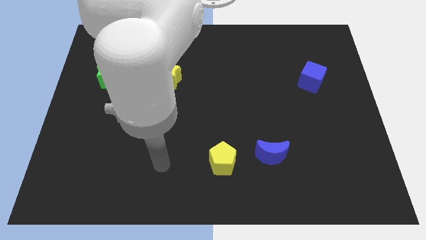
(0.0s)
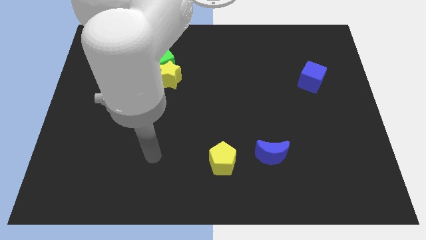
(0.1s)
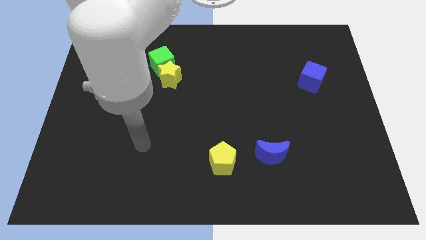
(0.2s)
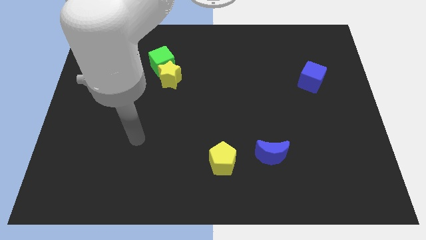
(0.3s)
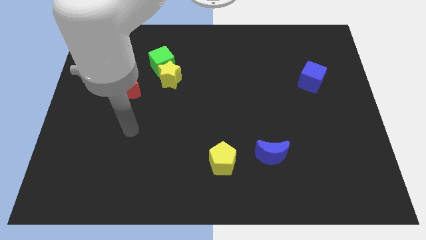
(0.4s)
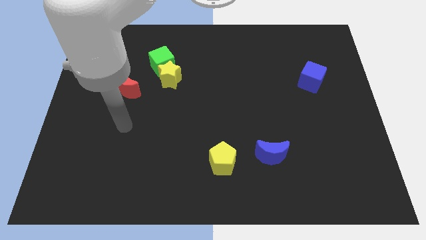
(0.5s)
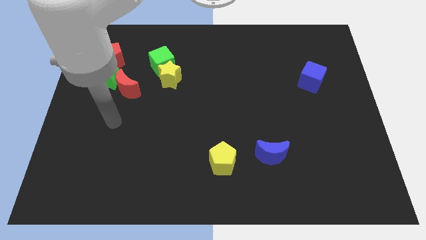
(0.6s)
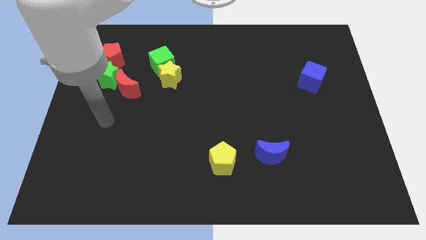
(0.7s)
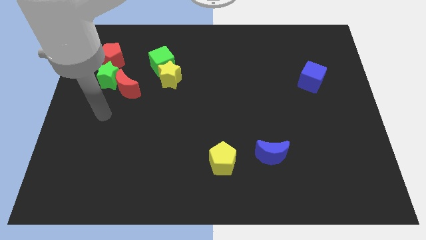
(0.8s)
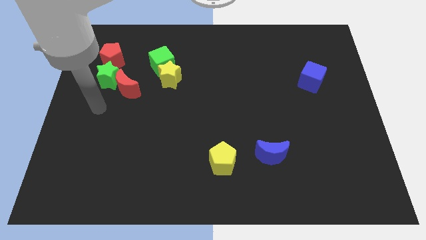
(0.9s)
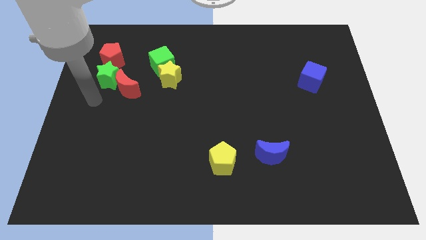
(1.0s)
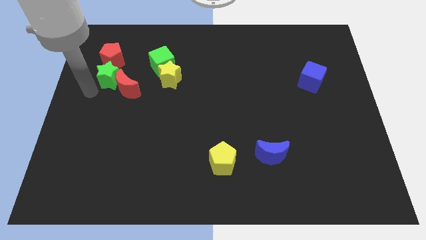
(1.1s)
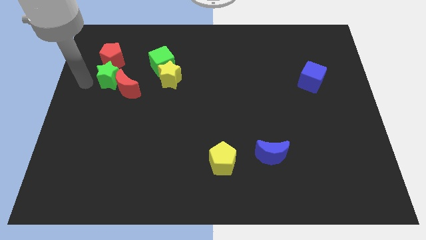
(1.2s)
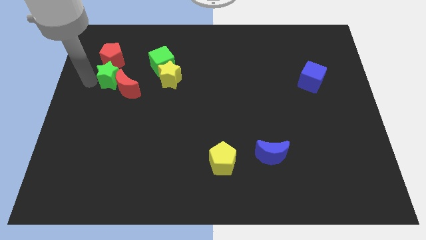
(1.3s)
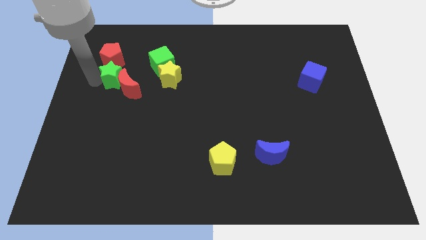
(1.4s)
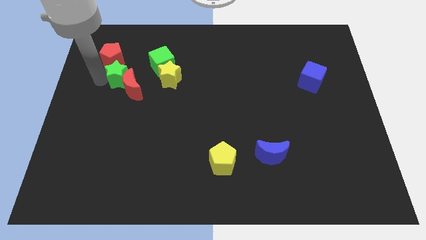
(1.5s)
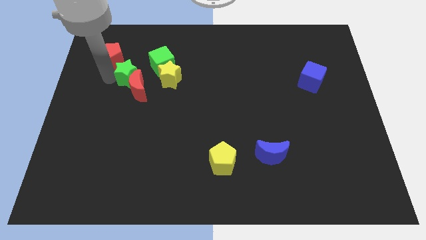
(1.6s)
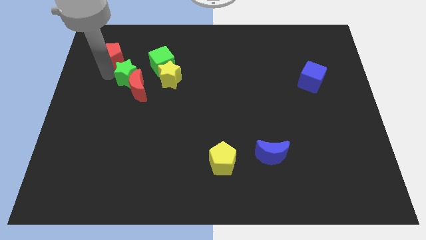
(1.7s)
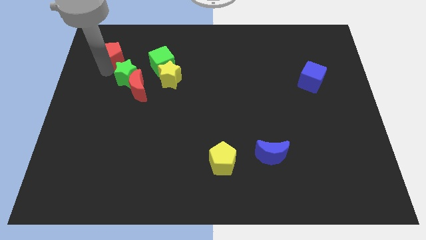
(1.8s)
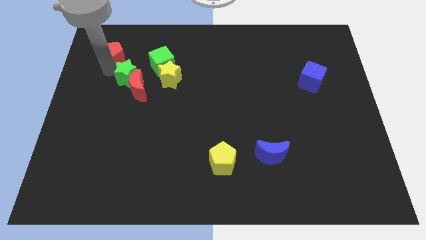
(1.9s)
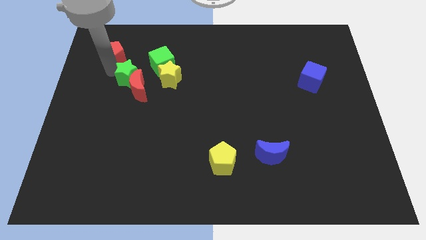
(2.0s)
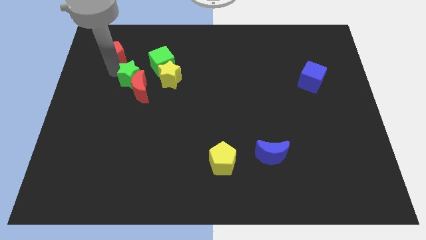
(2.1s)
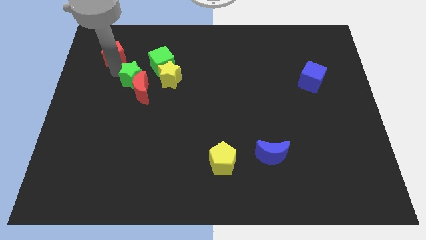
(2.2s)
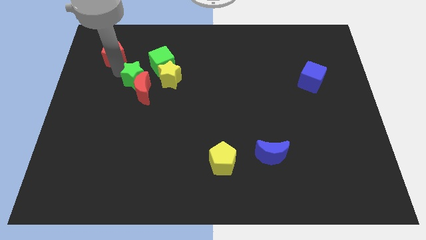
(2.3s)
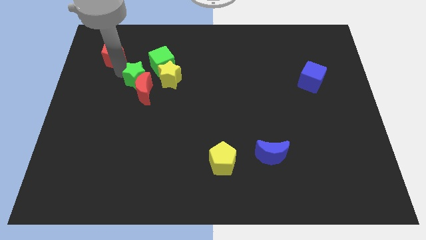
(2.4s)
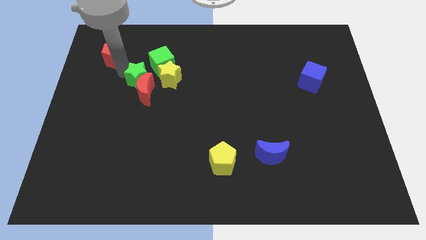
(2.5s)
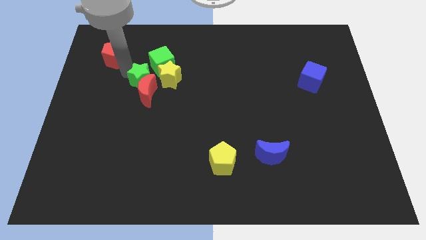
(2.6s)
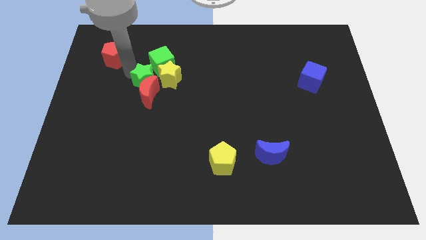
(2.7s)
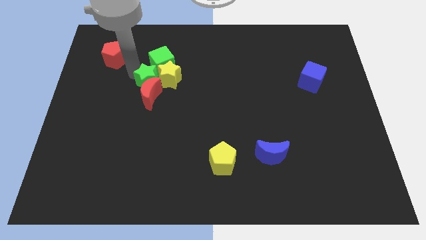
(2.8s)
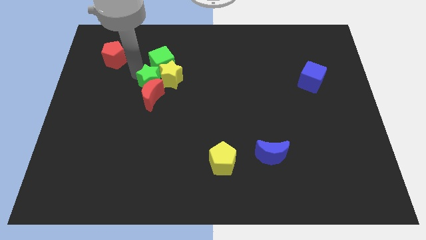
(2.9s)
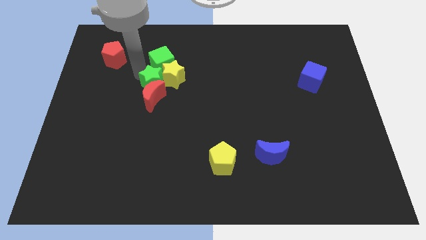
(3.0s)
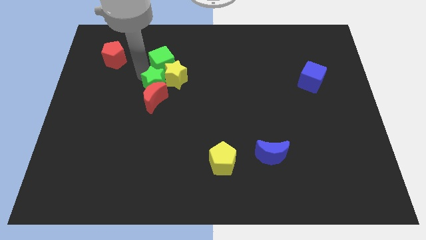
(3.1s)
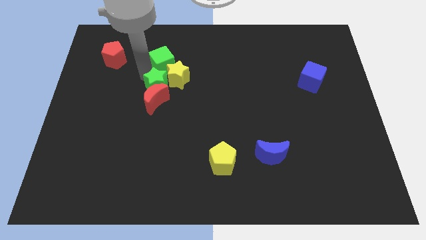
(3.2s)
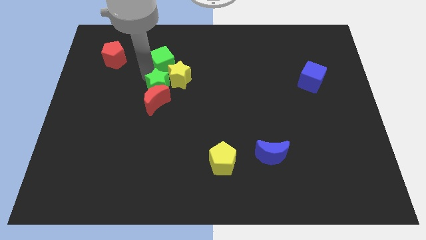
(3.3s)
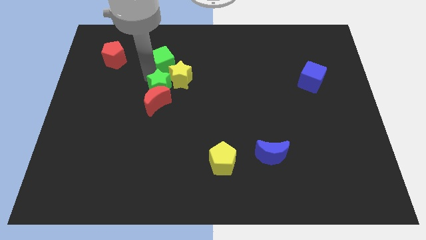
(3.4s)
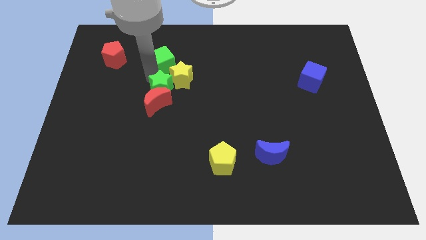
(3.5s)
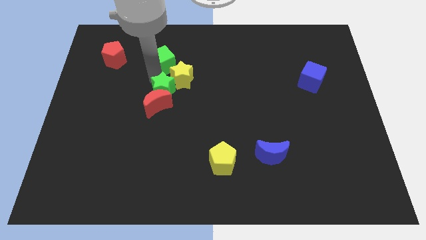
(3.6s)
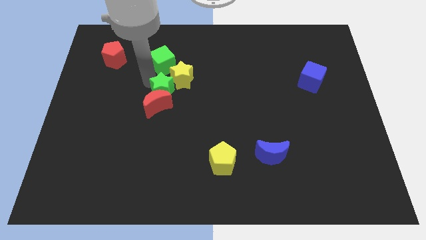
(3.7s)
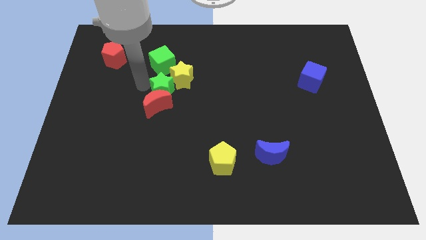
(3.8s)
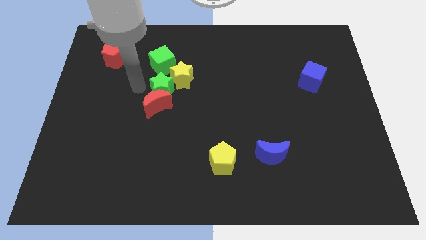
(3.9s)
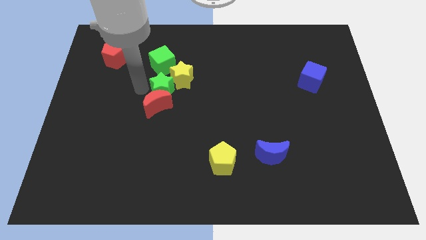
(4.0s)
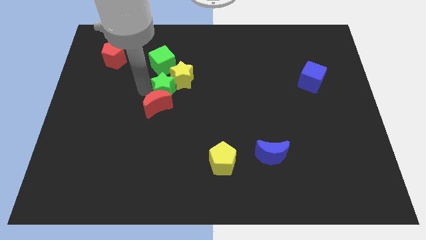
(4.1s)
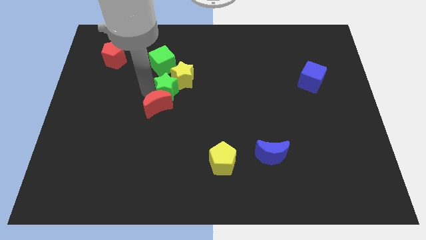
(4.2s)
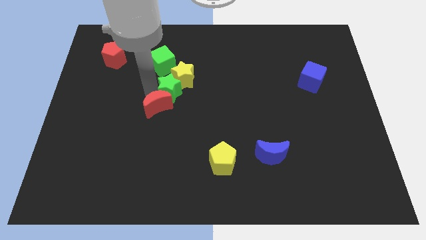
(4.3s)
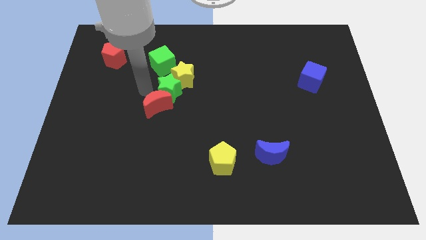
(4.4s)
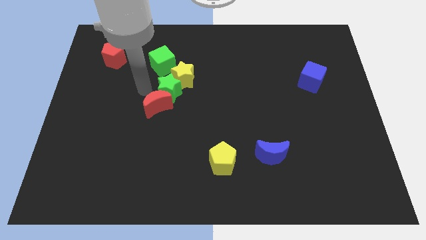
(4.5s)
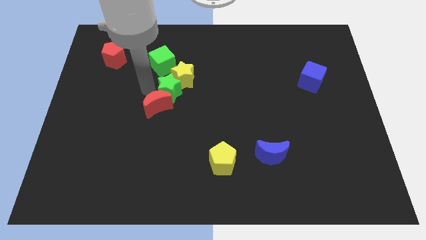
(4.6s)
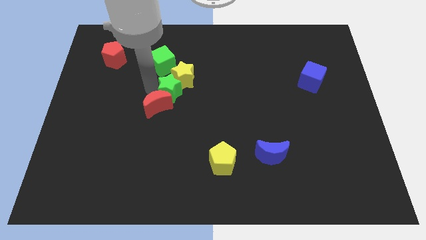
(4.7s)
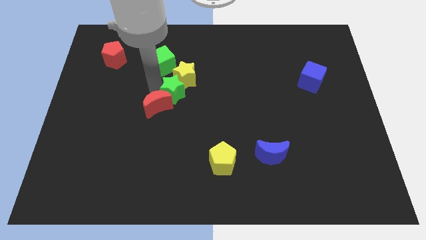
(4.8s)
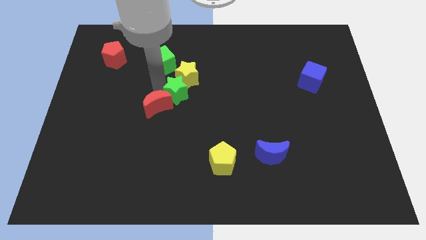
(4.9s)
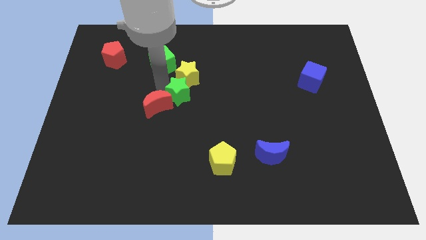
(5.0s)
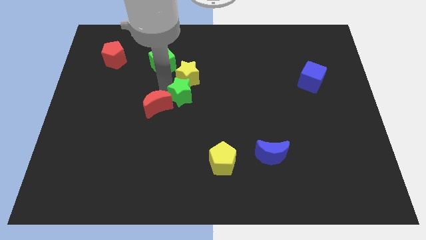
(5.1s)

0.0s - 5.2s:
move the green star to the bottom right of the yellow star

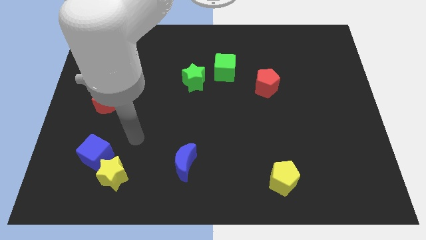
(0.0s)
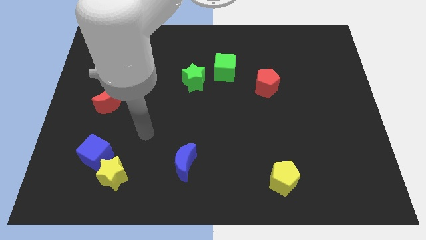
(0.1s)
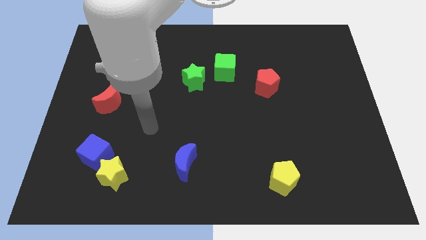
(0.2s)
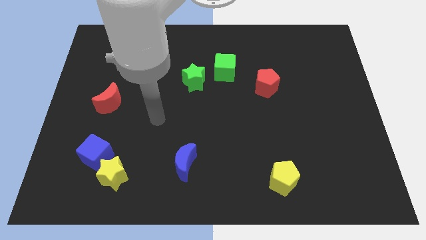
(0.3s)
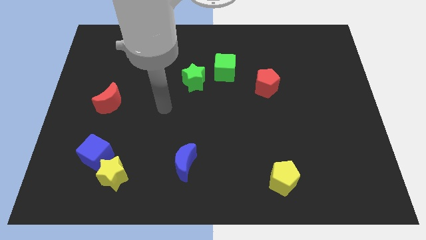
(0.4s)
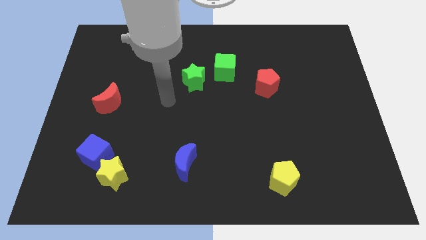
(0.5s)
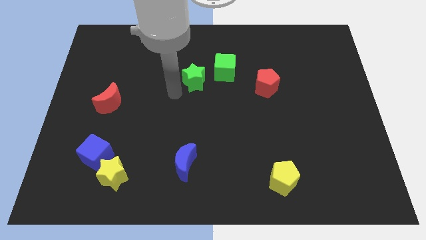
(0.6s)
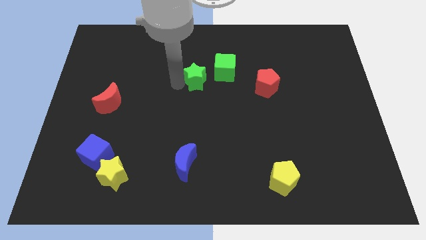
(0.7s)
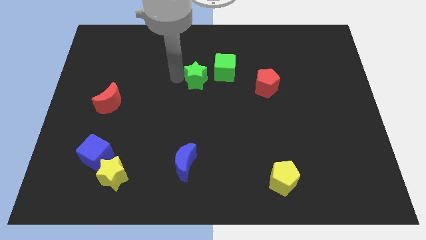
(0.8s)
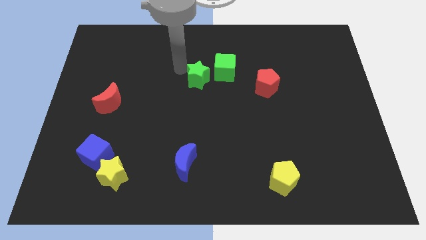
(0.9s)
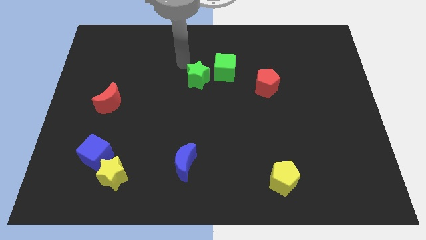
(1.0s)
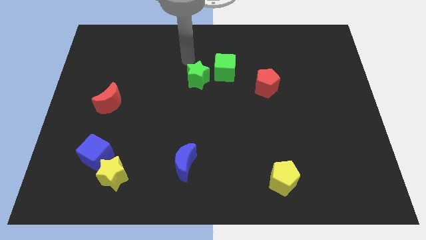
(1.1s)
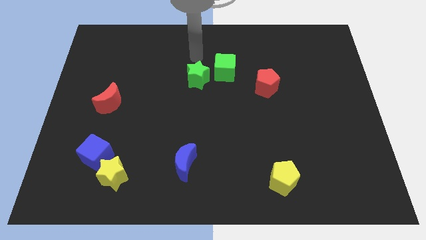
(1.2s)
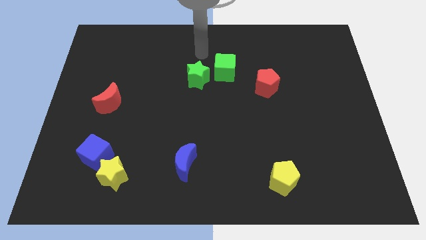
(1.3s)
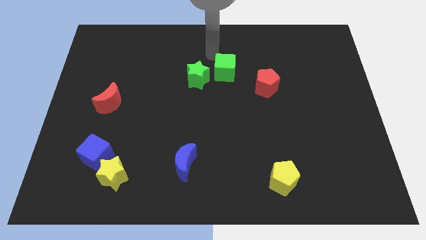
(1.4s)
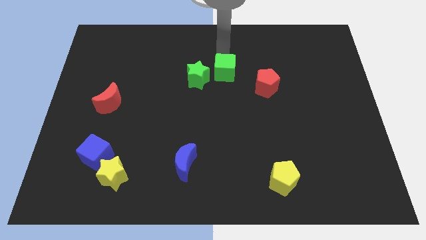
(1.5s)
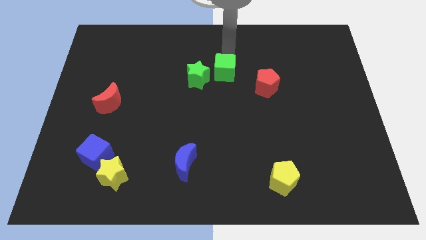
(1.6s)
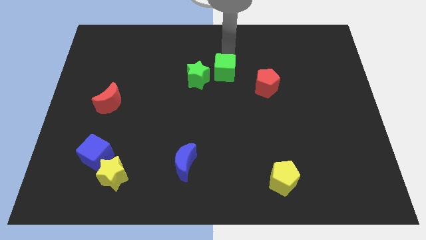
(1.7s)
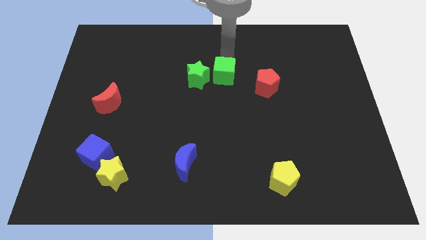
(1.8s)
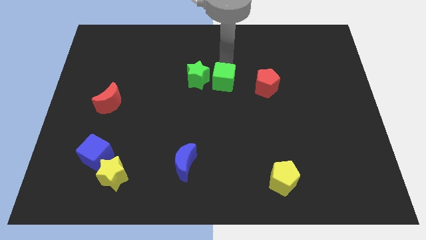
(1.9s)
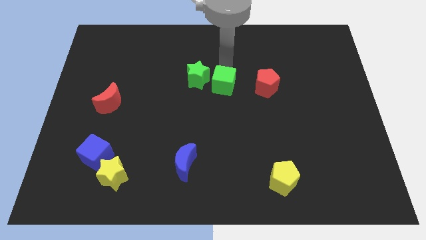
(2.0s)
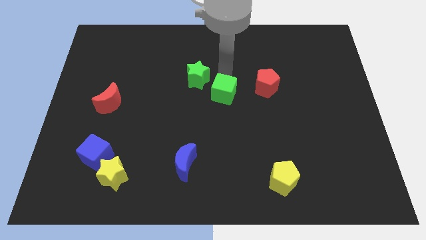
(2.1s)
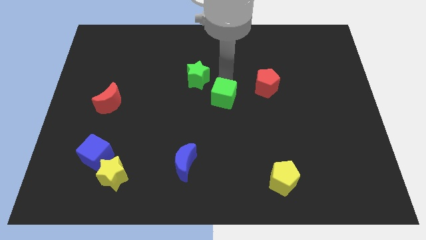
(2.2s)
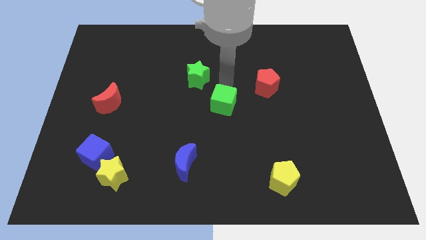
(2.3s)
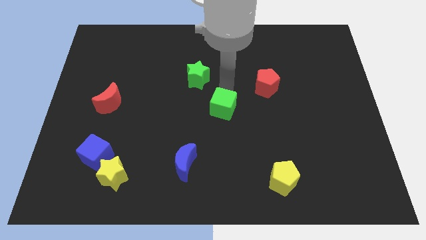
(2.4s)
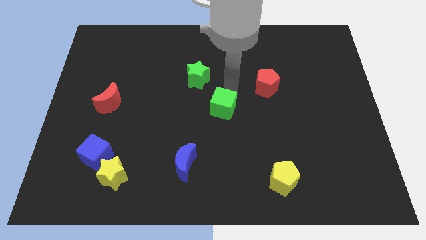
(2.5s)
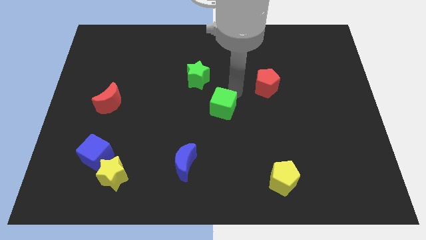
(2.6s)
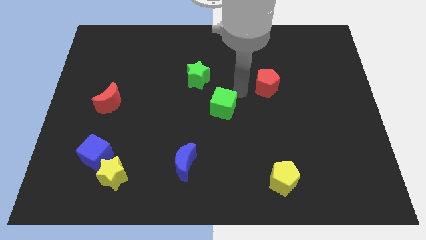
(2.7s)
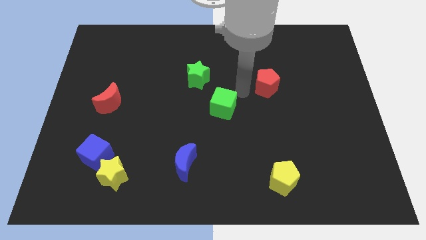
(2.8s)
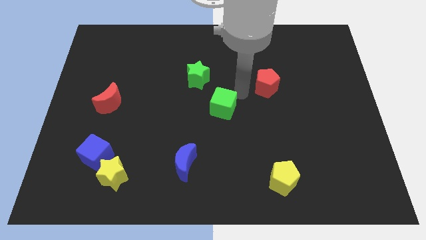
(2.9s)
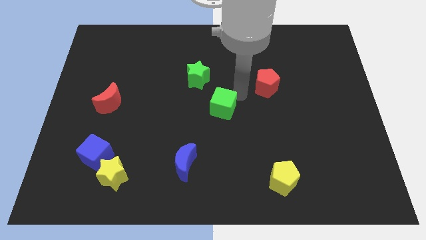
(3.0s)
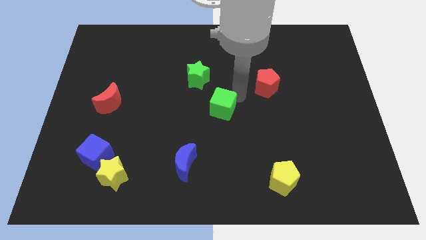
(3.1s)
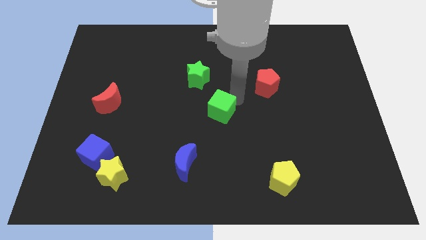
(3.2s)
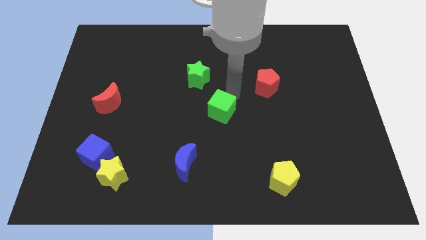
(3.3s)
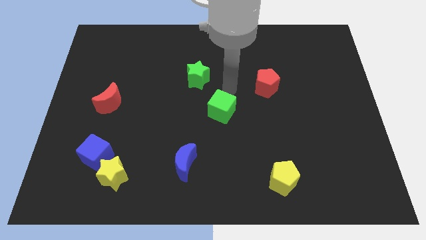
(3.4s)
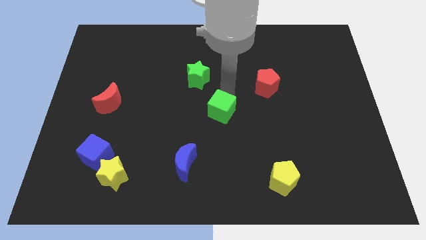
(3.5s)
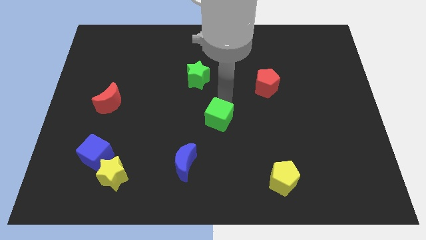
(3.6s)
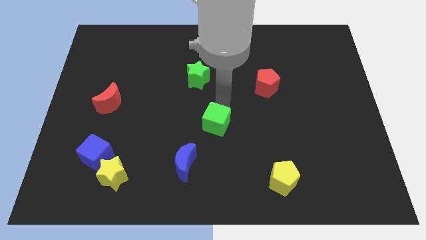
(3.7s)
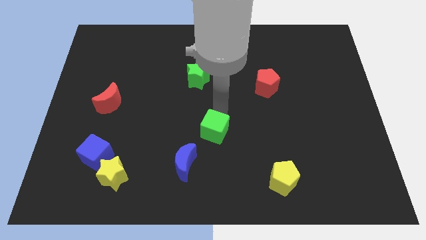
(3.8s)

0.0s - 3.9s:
put the green cube diagonally up and to the right of the blue moon
